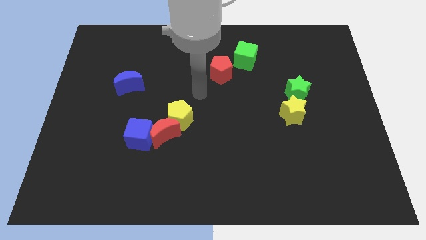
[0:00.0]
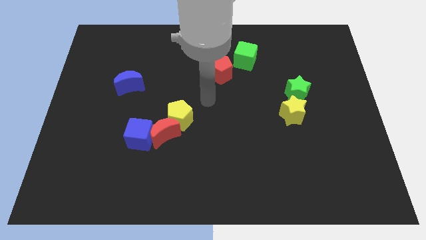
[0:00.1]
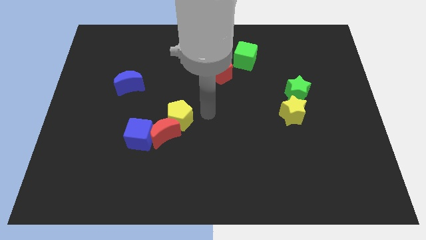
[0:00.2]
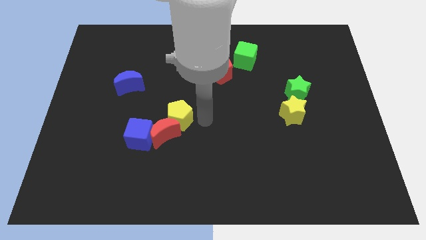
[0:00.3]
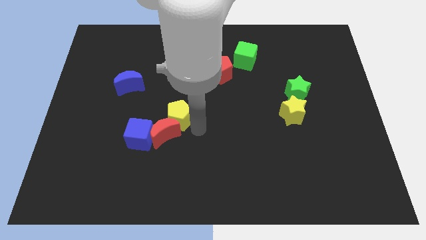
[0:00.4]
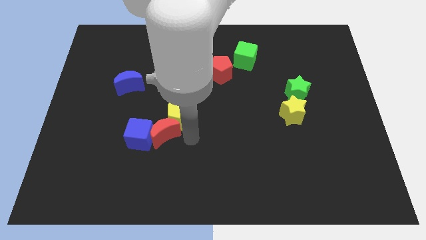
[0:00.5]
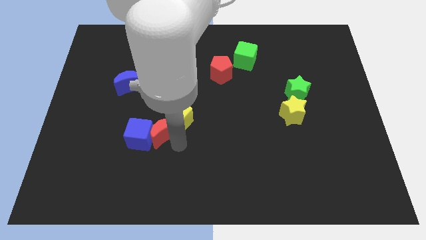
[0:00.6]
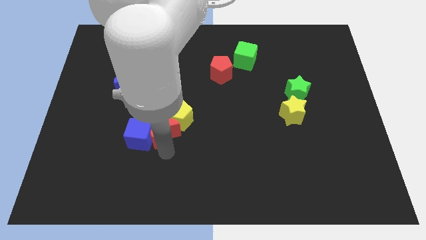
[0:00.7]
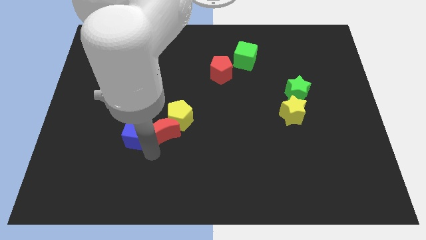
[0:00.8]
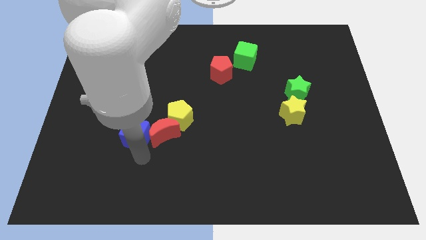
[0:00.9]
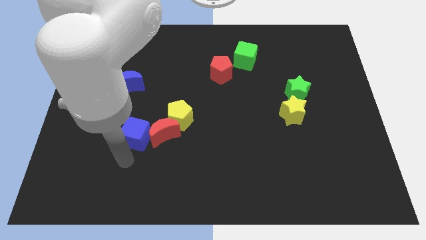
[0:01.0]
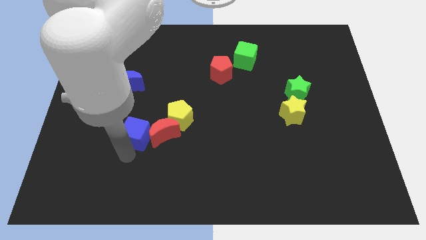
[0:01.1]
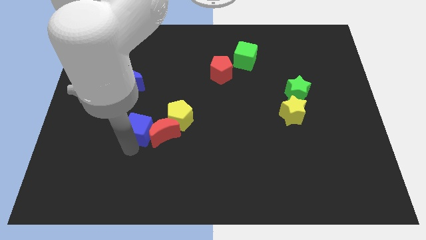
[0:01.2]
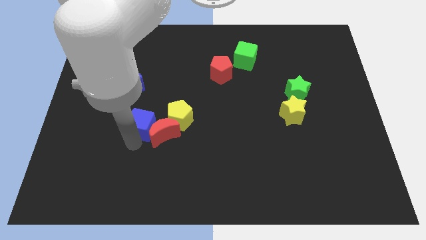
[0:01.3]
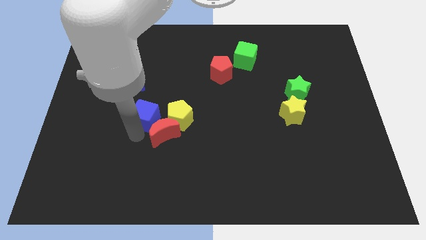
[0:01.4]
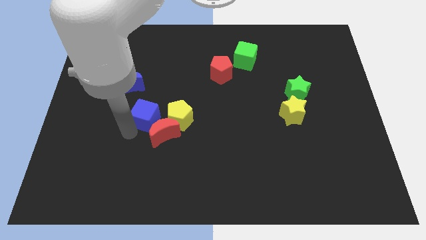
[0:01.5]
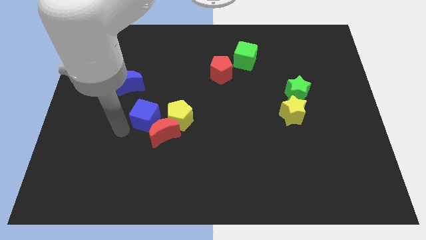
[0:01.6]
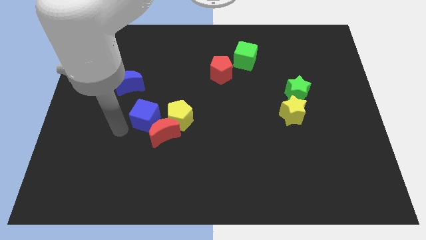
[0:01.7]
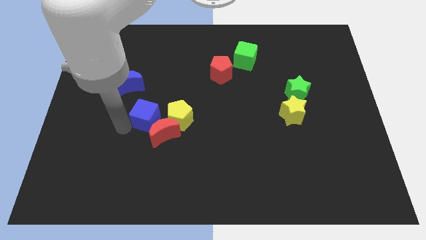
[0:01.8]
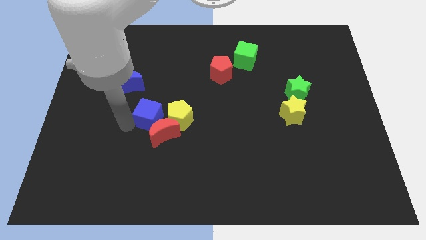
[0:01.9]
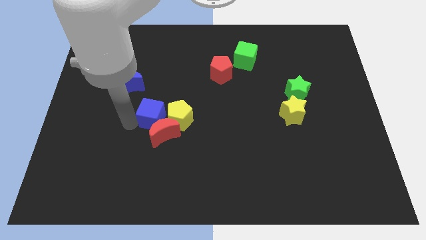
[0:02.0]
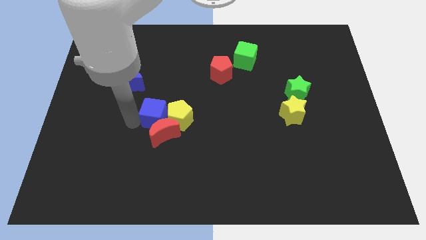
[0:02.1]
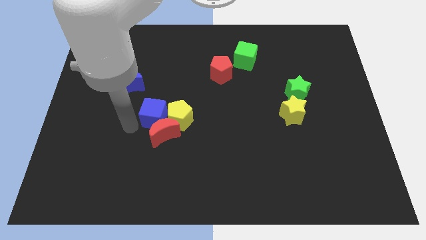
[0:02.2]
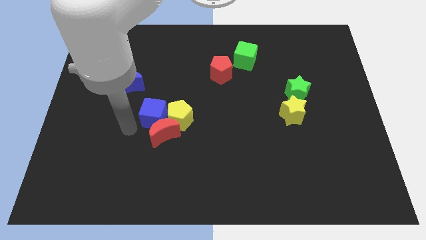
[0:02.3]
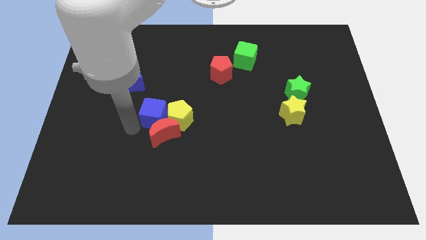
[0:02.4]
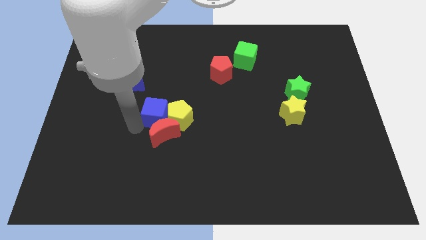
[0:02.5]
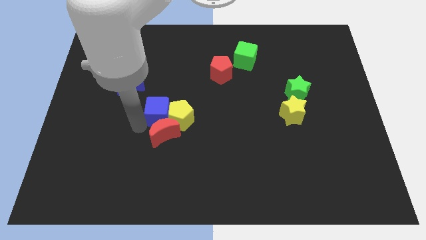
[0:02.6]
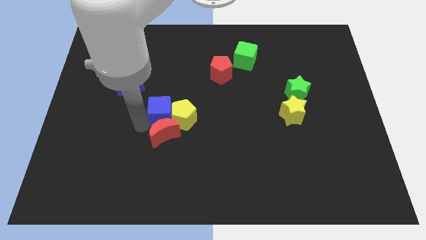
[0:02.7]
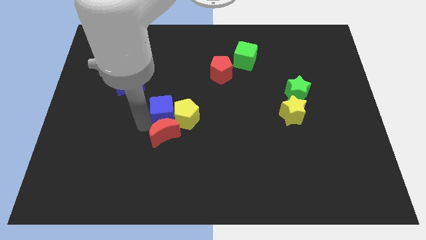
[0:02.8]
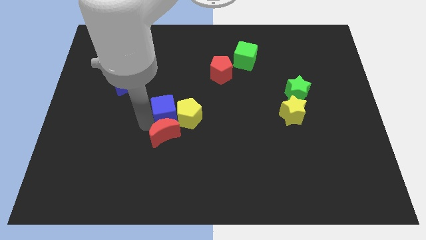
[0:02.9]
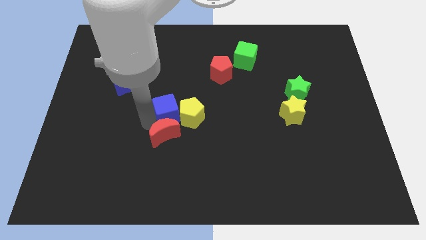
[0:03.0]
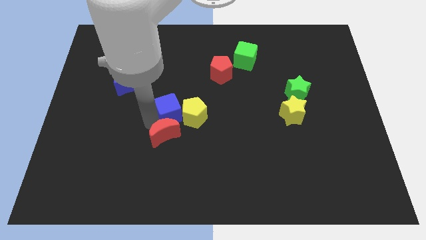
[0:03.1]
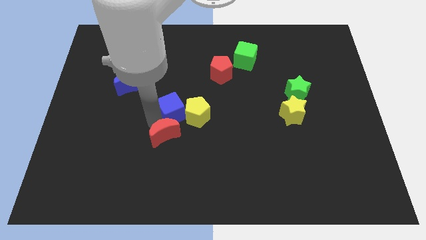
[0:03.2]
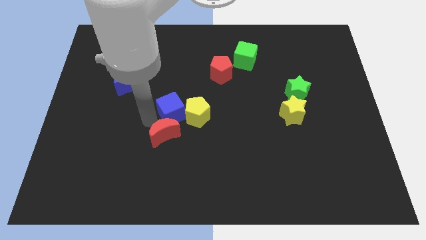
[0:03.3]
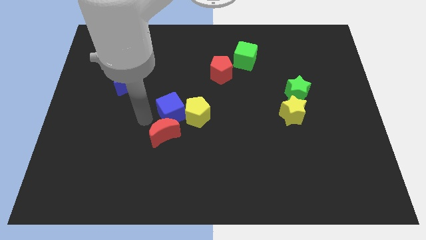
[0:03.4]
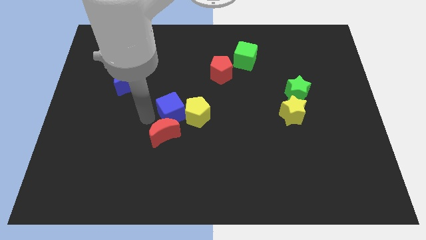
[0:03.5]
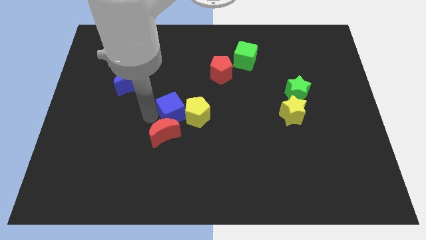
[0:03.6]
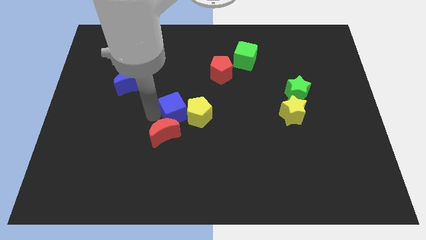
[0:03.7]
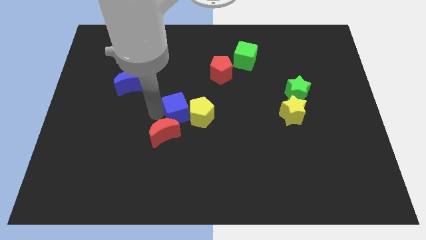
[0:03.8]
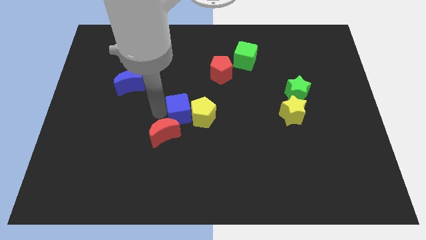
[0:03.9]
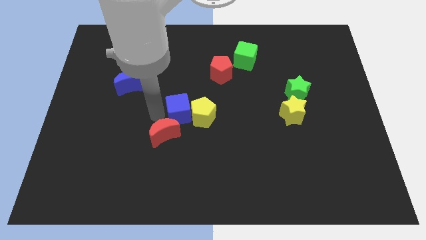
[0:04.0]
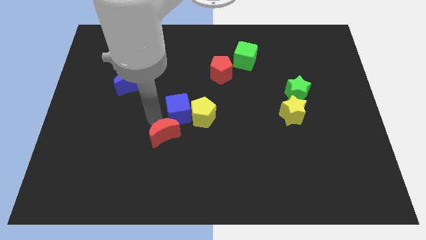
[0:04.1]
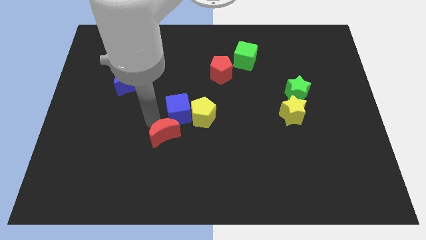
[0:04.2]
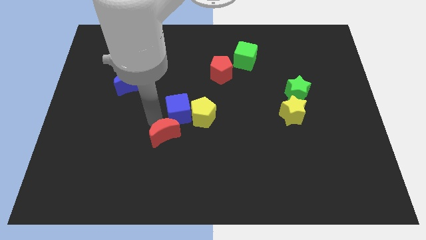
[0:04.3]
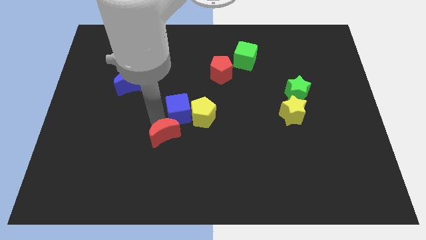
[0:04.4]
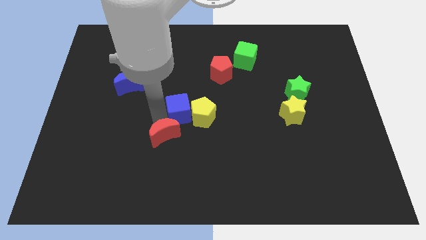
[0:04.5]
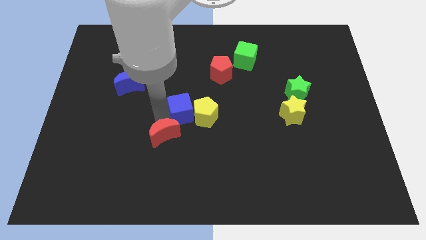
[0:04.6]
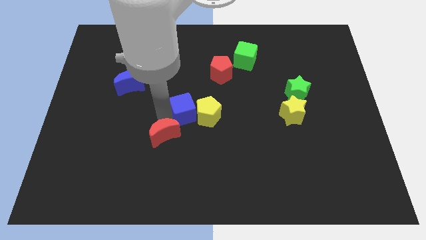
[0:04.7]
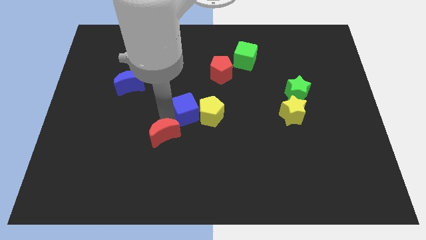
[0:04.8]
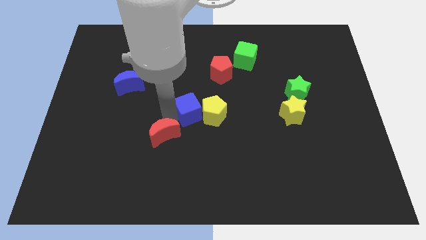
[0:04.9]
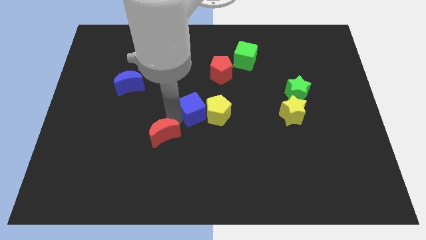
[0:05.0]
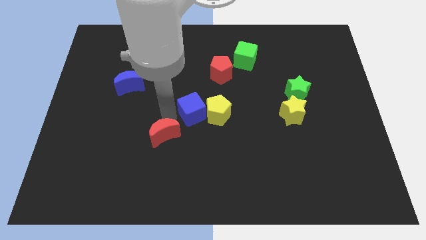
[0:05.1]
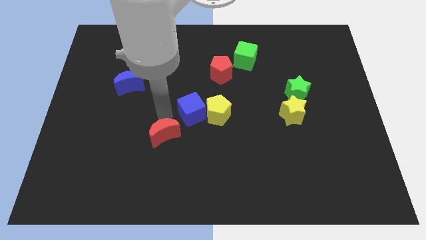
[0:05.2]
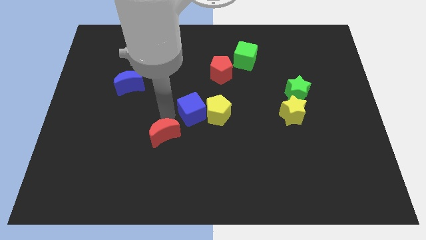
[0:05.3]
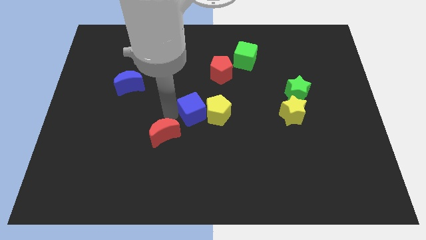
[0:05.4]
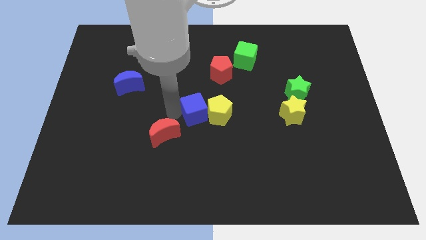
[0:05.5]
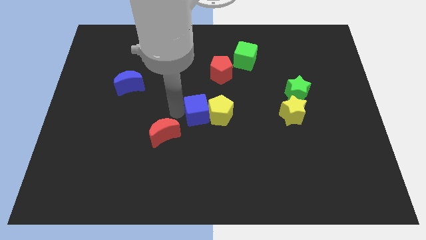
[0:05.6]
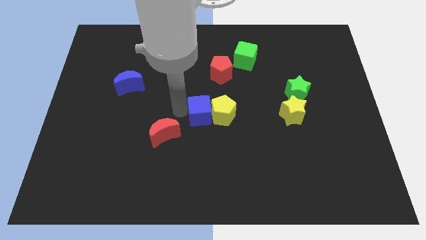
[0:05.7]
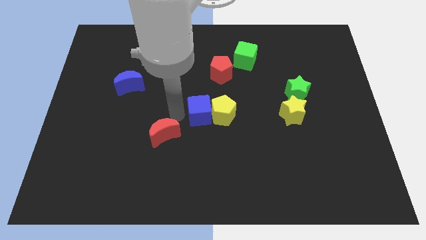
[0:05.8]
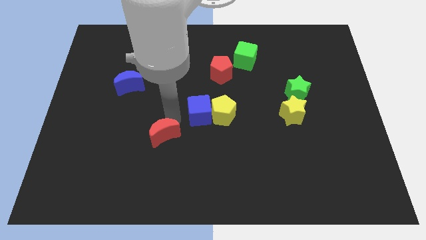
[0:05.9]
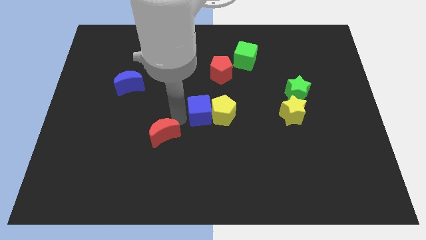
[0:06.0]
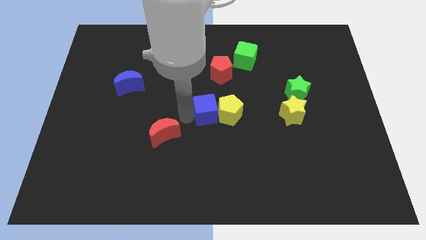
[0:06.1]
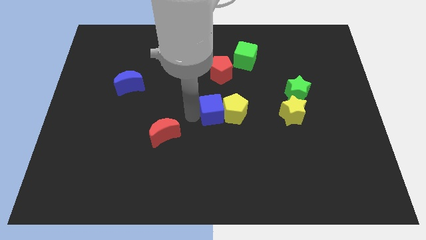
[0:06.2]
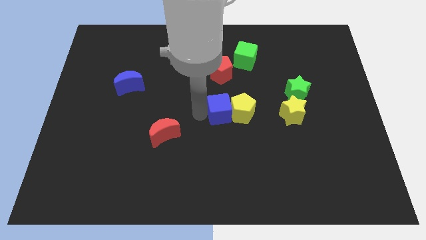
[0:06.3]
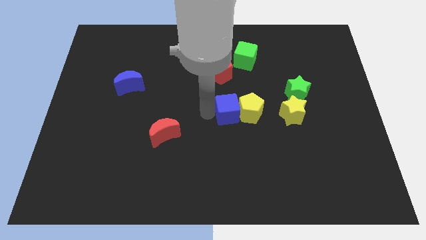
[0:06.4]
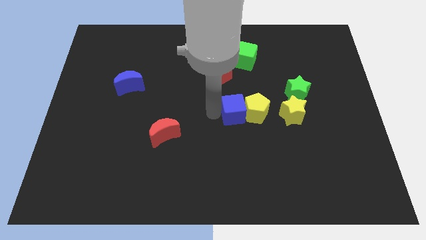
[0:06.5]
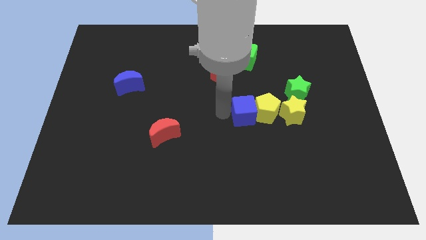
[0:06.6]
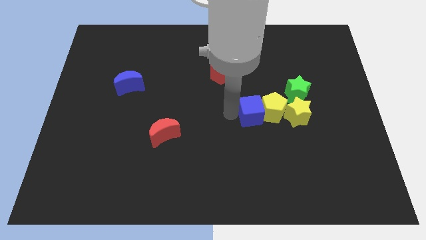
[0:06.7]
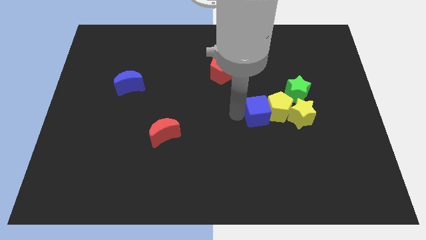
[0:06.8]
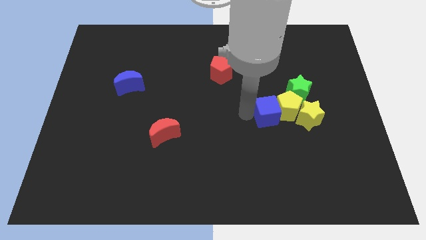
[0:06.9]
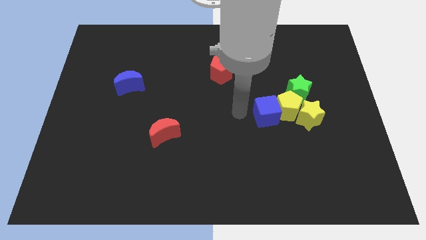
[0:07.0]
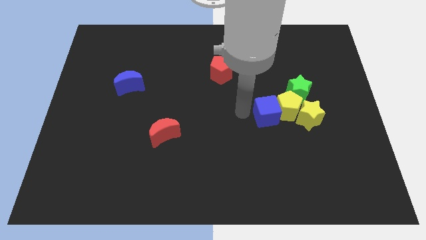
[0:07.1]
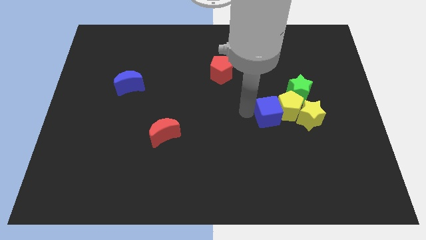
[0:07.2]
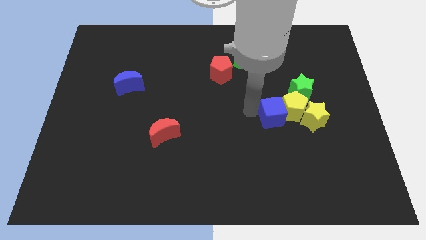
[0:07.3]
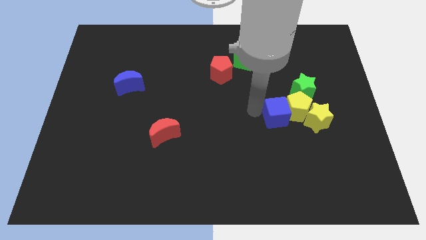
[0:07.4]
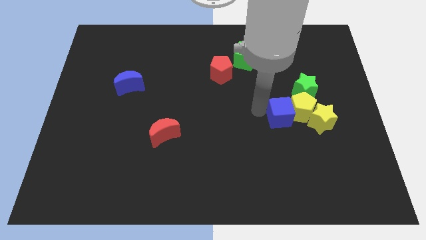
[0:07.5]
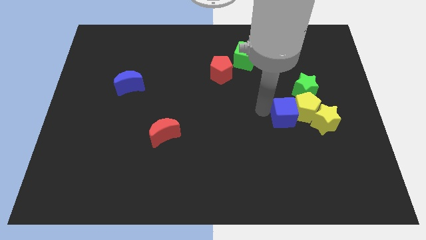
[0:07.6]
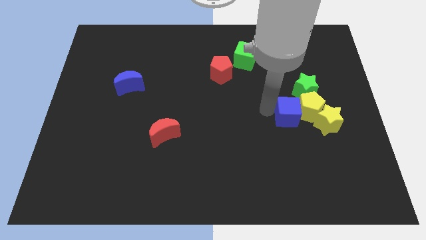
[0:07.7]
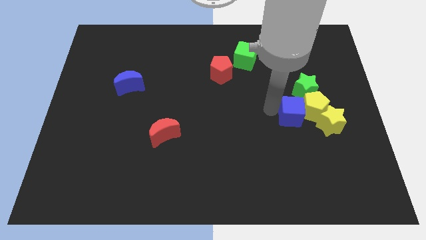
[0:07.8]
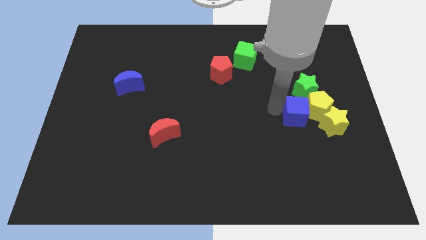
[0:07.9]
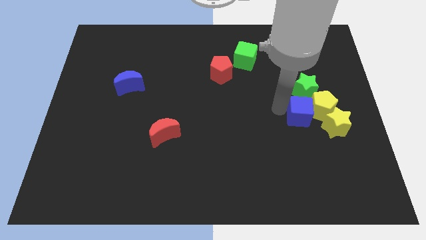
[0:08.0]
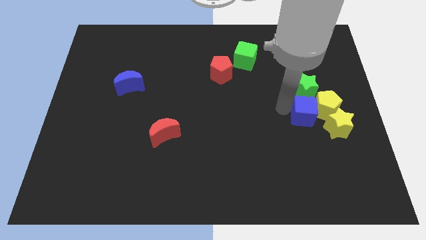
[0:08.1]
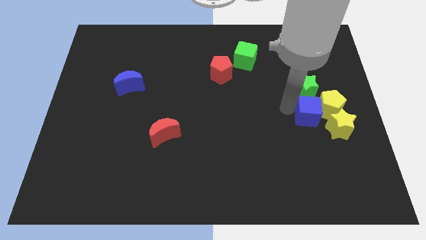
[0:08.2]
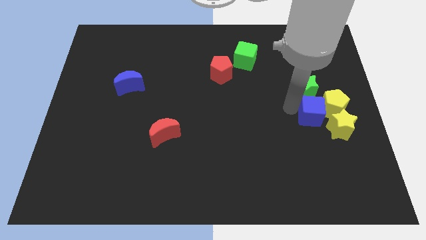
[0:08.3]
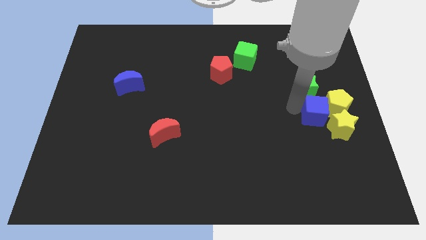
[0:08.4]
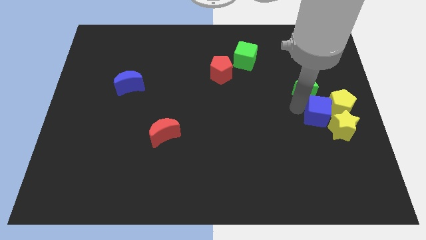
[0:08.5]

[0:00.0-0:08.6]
slide the blue cube towards the yellow star
